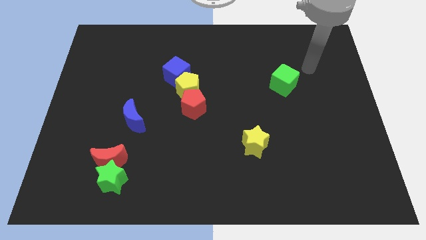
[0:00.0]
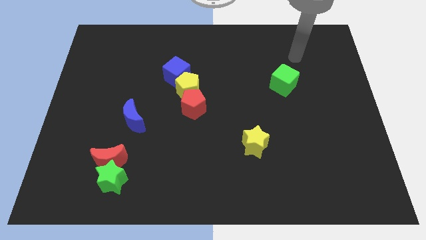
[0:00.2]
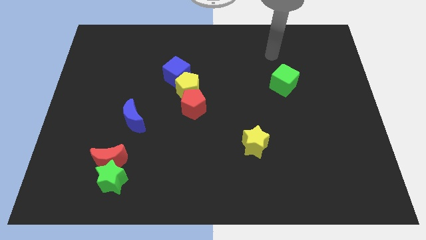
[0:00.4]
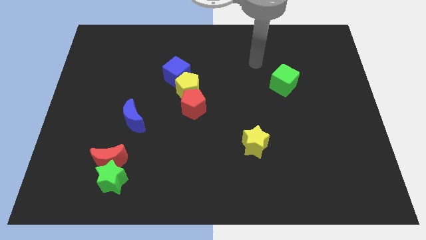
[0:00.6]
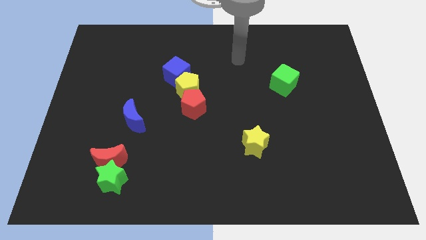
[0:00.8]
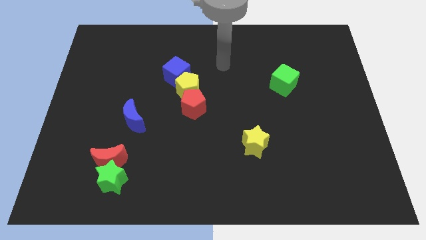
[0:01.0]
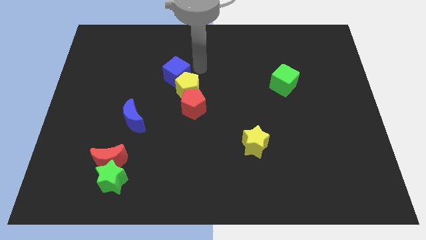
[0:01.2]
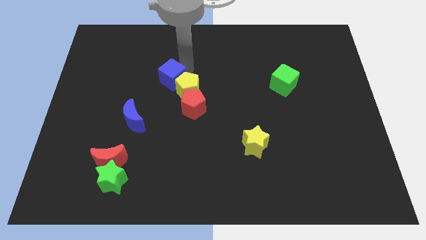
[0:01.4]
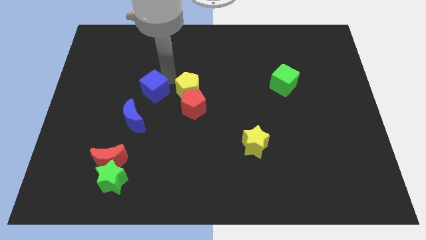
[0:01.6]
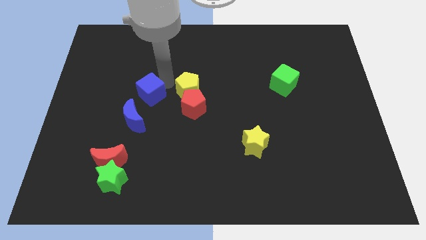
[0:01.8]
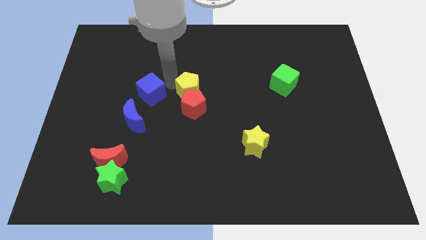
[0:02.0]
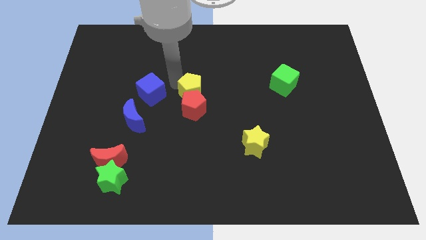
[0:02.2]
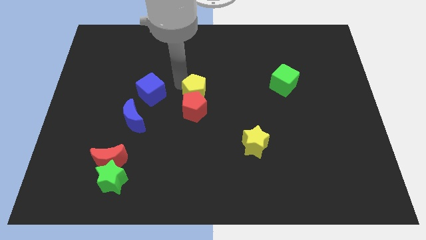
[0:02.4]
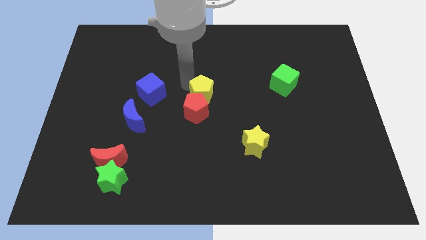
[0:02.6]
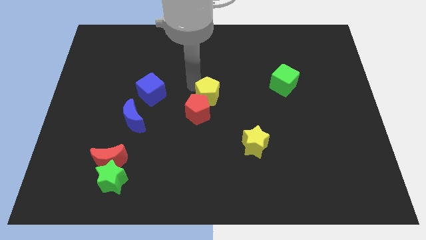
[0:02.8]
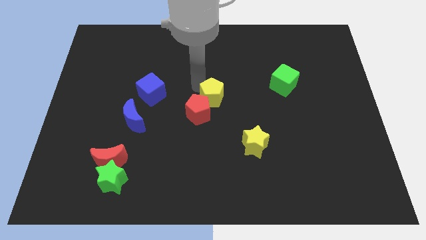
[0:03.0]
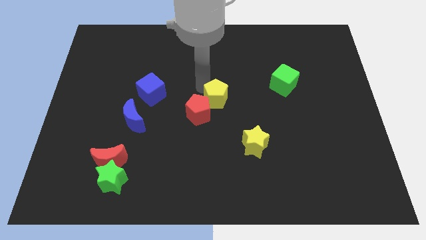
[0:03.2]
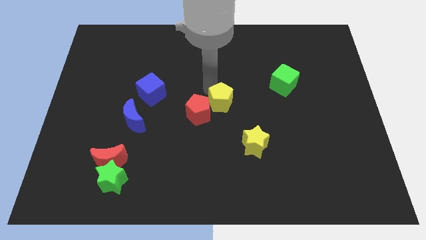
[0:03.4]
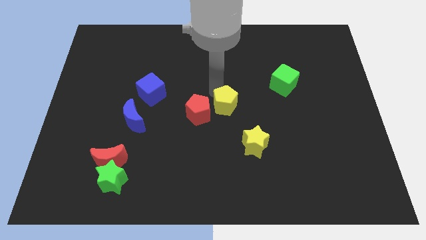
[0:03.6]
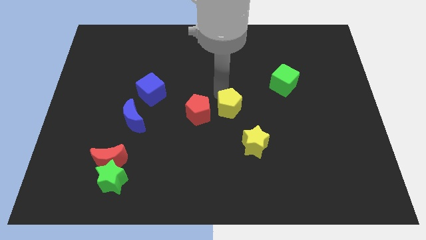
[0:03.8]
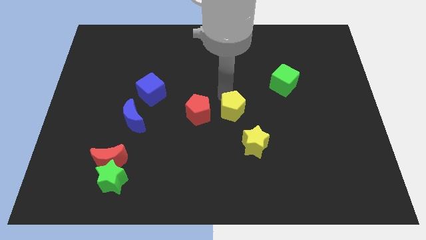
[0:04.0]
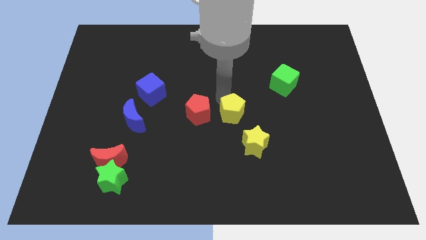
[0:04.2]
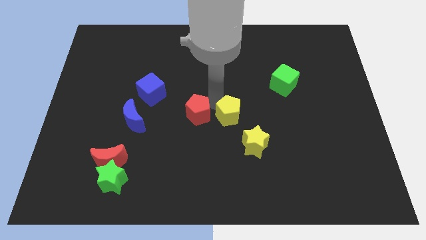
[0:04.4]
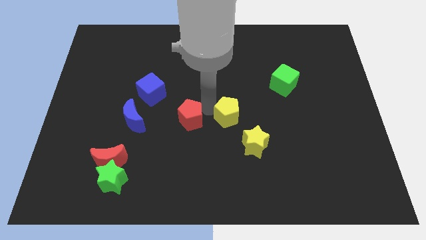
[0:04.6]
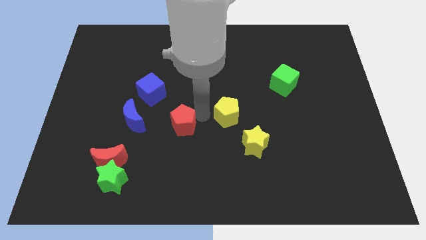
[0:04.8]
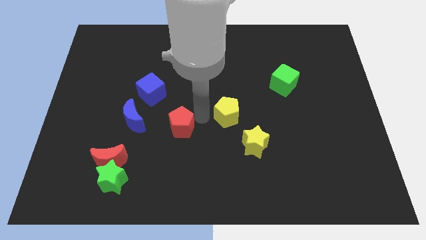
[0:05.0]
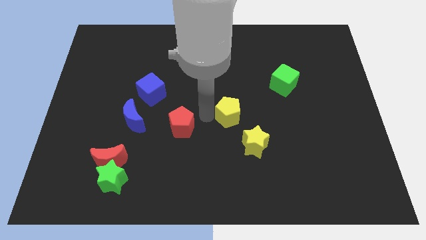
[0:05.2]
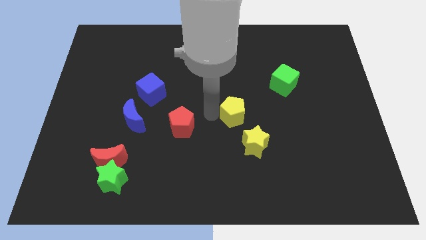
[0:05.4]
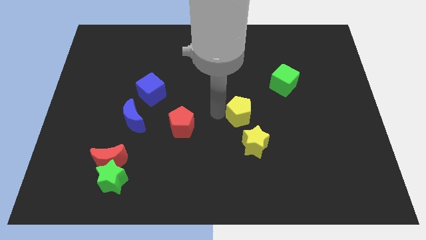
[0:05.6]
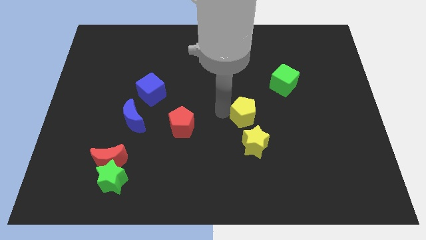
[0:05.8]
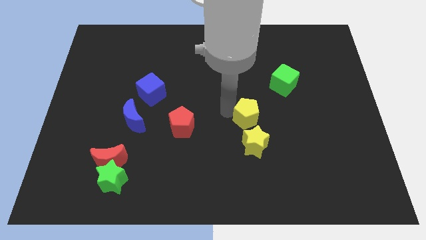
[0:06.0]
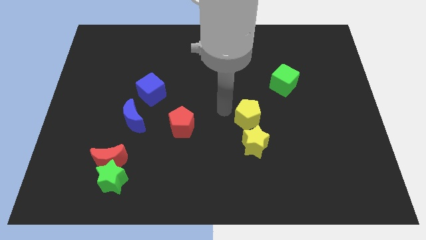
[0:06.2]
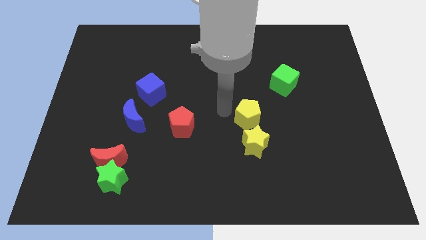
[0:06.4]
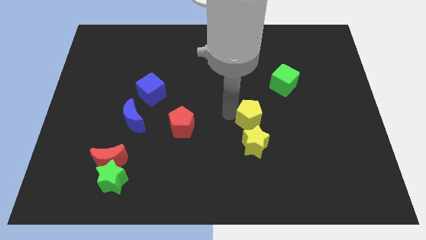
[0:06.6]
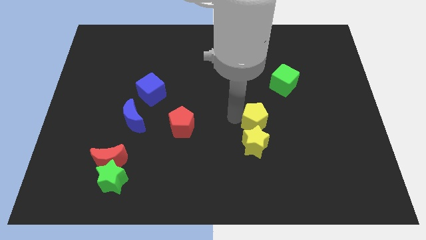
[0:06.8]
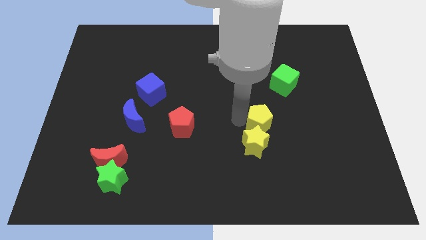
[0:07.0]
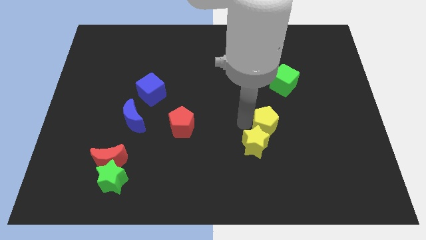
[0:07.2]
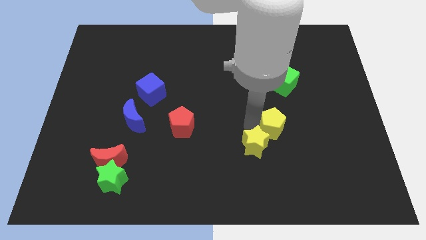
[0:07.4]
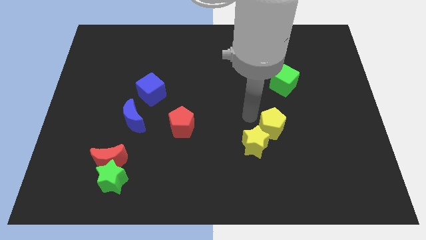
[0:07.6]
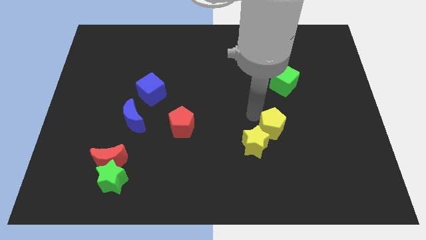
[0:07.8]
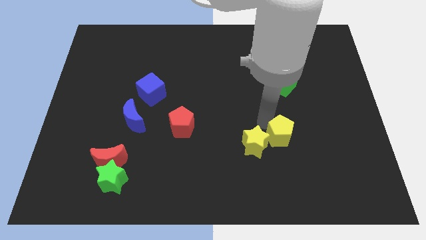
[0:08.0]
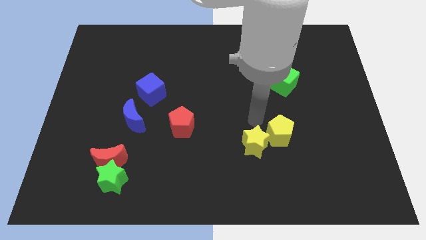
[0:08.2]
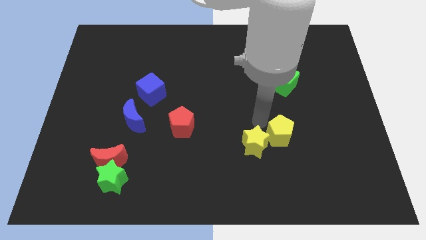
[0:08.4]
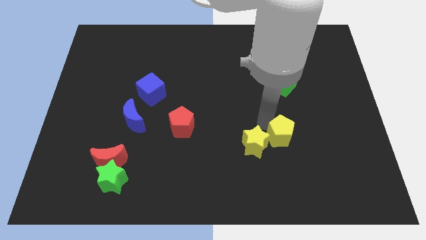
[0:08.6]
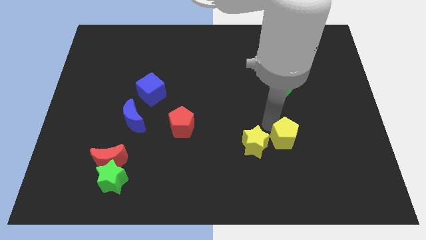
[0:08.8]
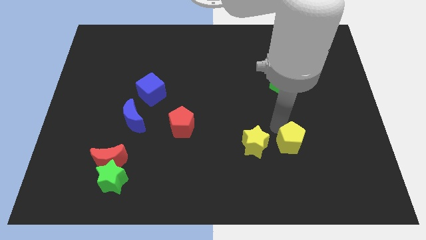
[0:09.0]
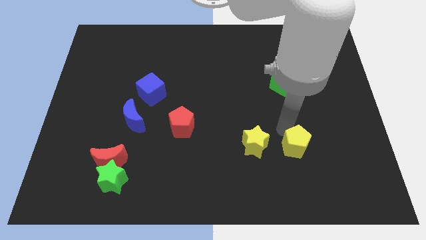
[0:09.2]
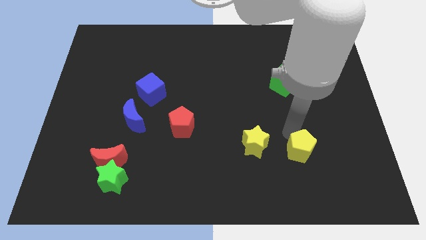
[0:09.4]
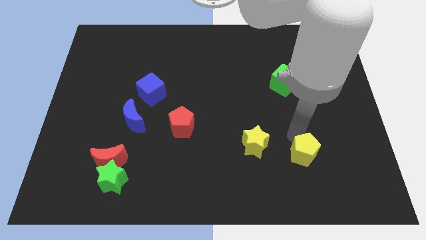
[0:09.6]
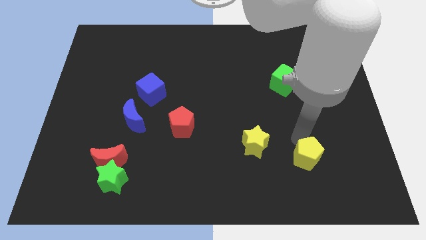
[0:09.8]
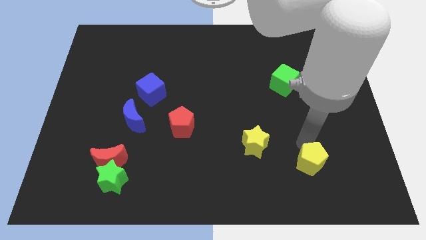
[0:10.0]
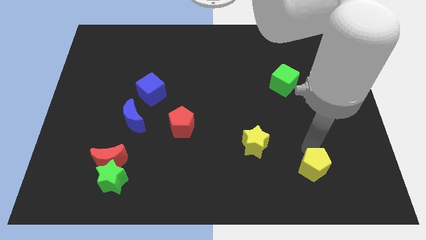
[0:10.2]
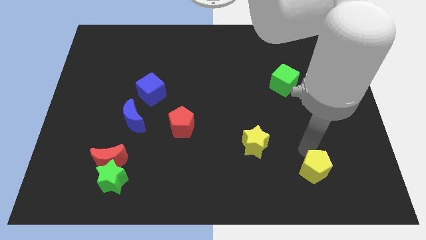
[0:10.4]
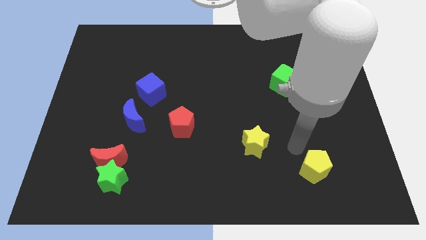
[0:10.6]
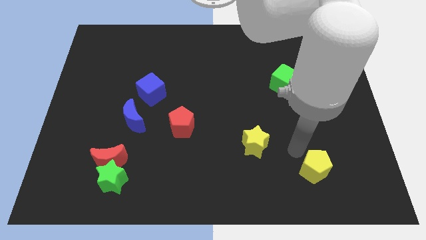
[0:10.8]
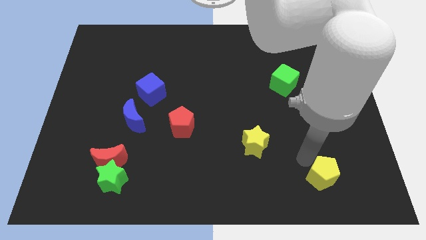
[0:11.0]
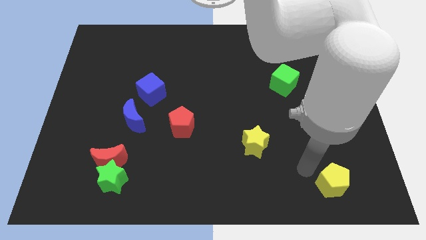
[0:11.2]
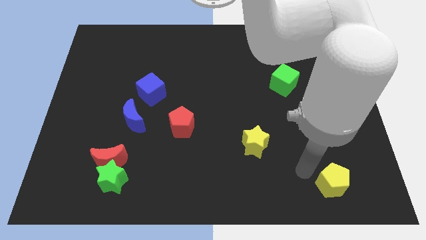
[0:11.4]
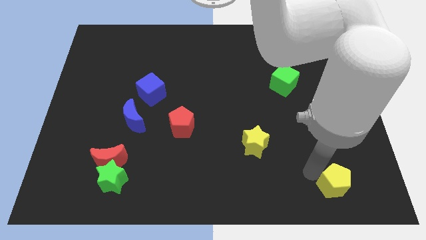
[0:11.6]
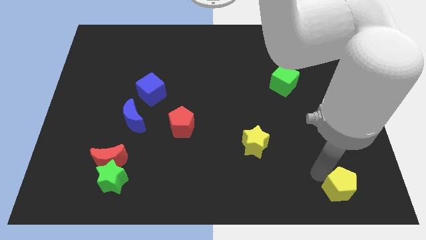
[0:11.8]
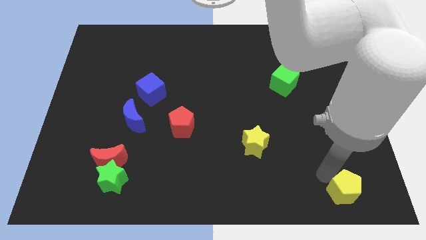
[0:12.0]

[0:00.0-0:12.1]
push the yellow pentagon to the bottom right corner

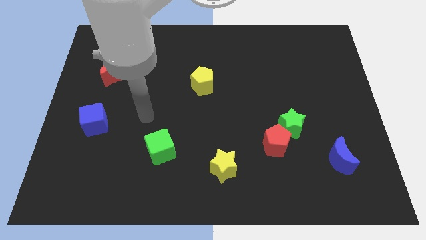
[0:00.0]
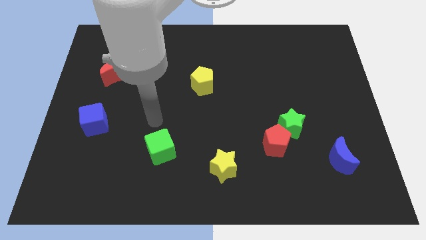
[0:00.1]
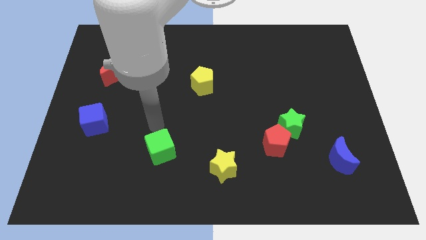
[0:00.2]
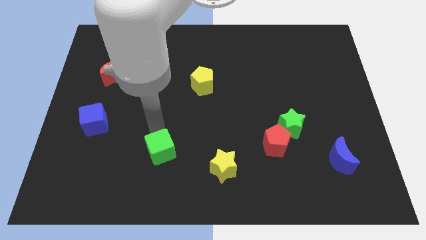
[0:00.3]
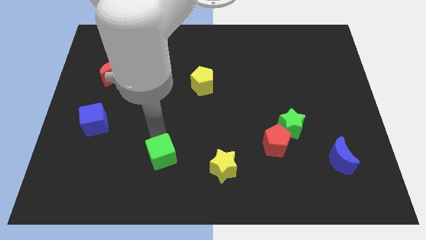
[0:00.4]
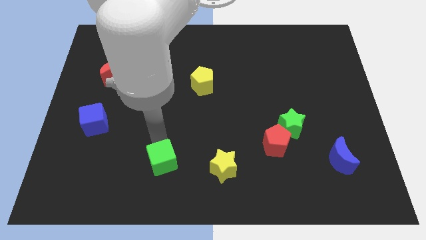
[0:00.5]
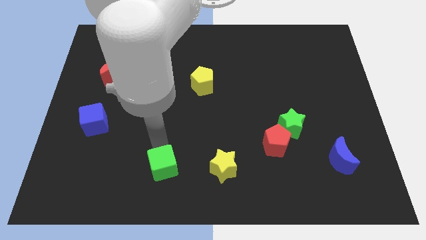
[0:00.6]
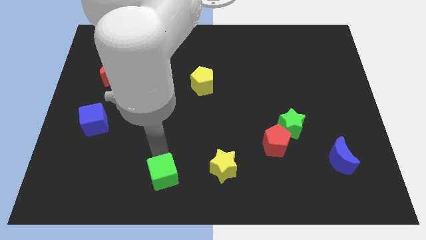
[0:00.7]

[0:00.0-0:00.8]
put the green cube to the bottom
